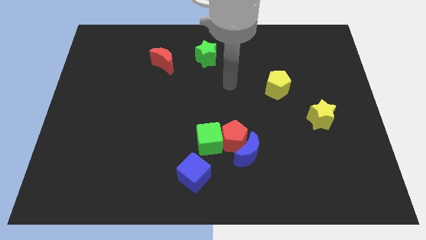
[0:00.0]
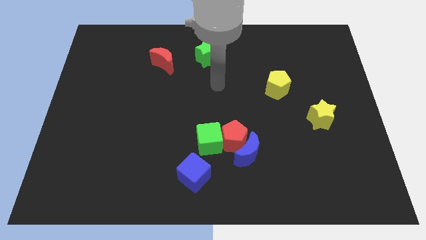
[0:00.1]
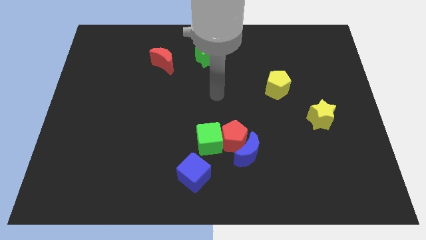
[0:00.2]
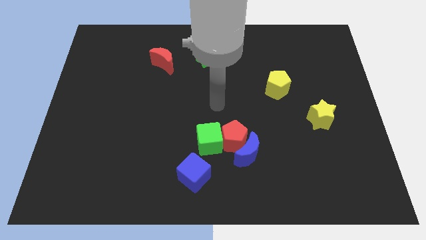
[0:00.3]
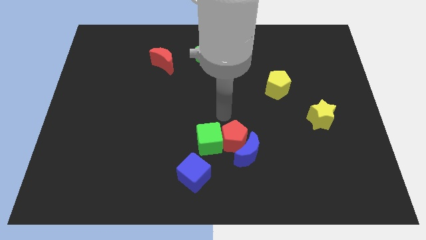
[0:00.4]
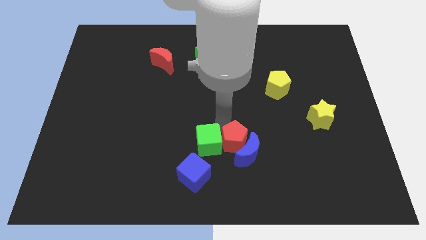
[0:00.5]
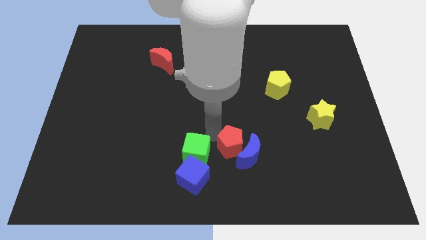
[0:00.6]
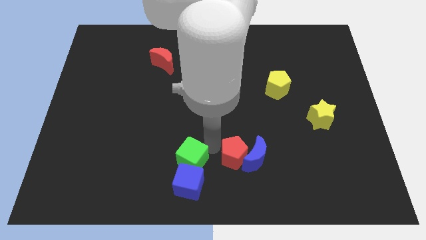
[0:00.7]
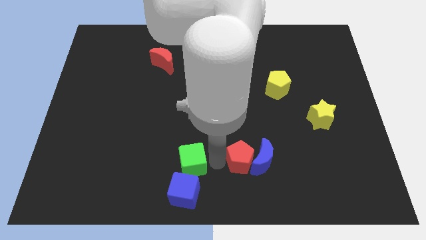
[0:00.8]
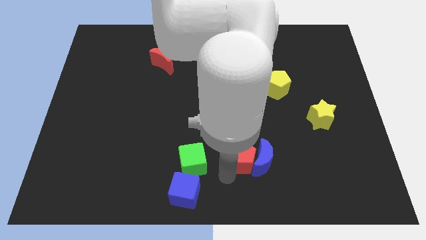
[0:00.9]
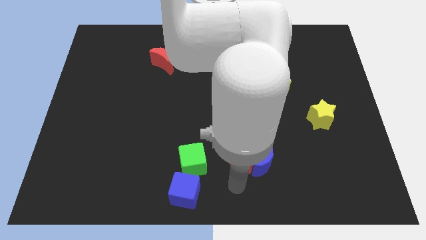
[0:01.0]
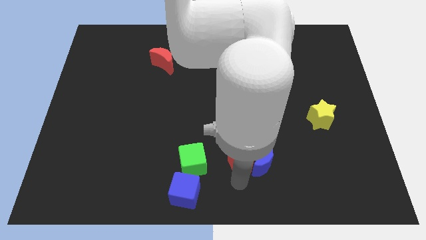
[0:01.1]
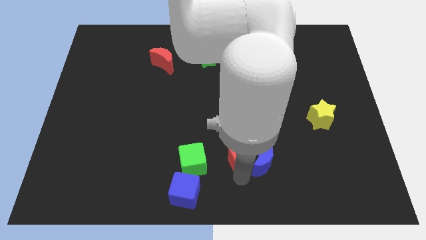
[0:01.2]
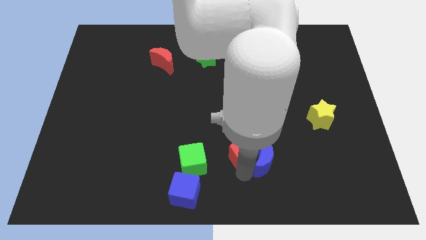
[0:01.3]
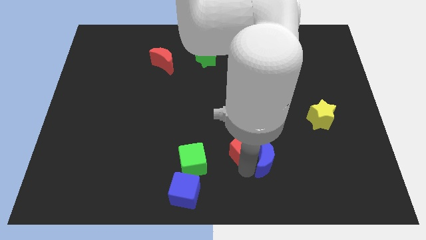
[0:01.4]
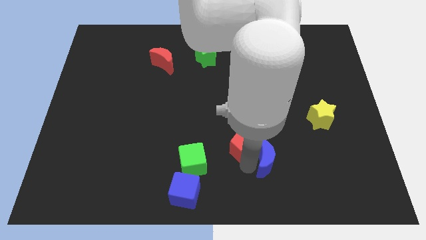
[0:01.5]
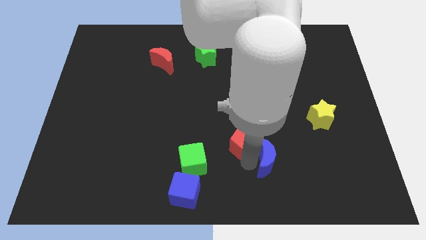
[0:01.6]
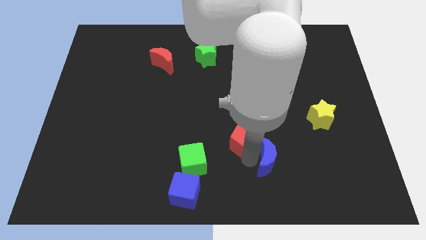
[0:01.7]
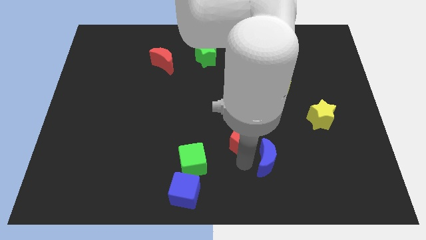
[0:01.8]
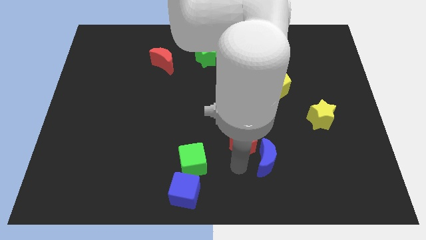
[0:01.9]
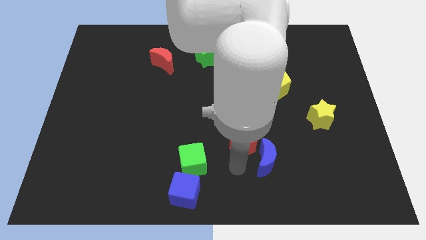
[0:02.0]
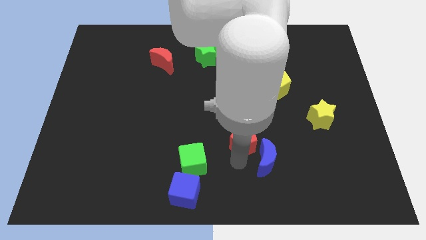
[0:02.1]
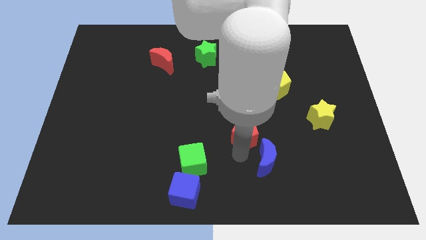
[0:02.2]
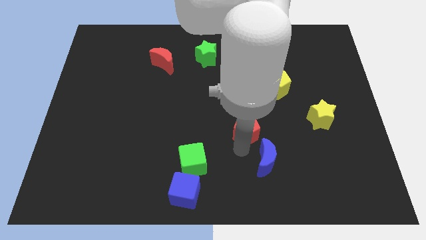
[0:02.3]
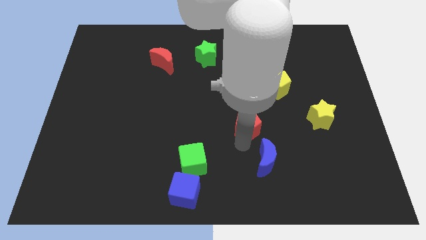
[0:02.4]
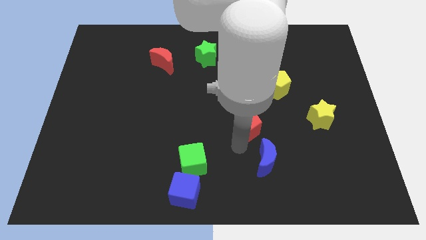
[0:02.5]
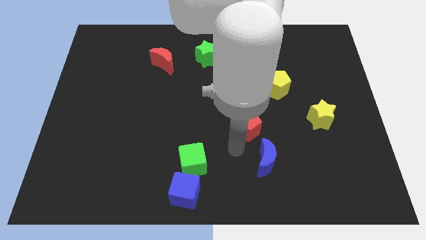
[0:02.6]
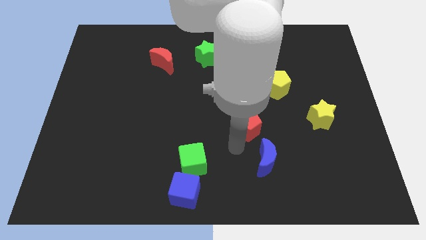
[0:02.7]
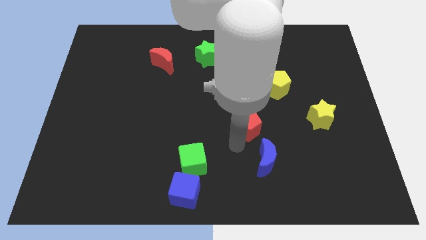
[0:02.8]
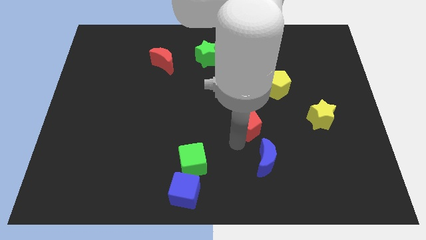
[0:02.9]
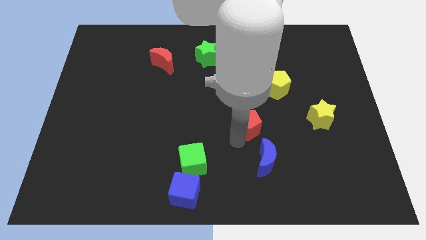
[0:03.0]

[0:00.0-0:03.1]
pull the red pentagon apart from the blue moon and green cube

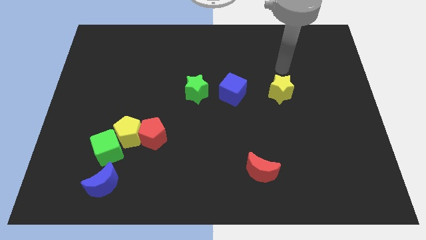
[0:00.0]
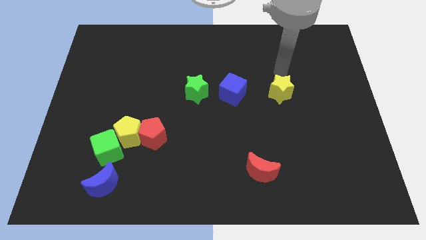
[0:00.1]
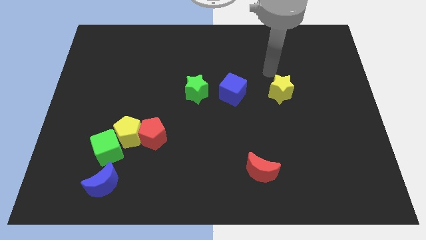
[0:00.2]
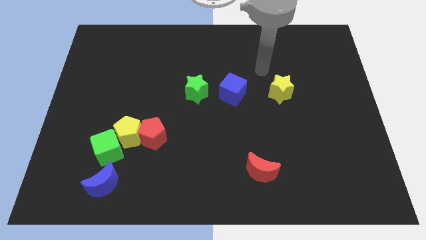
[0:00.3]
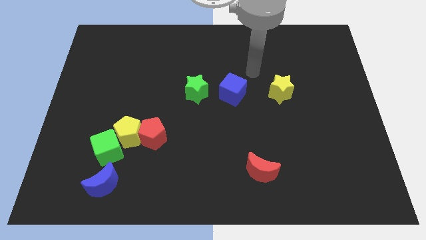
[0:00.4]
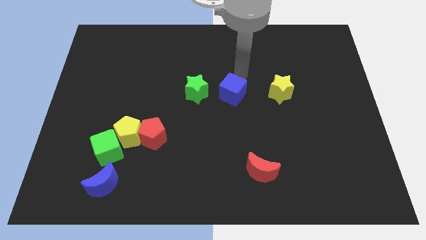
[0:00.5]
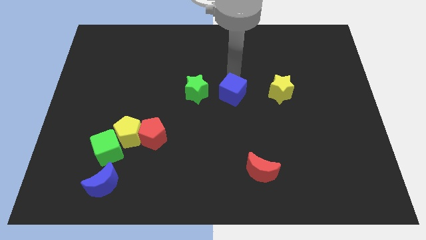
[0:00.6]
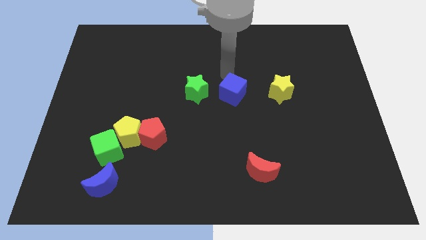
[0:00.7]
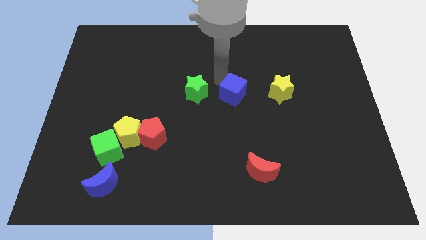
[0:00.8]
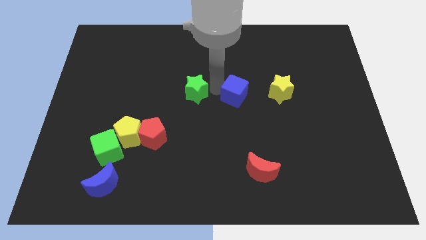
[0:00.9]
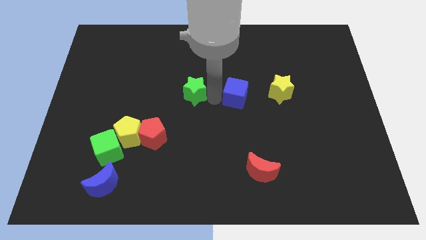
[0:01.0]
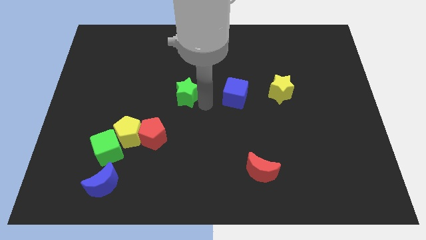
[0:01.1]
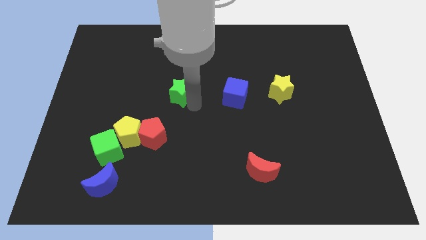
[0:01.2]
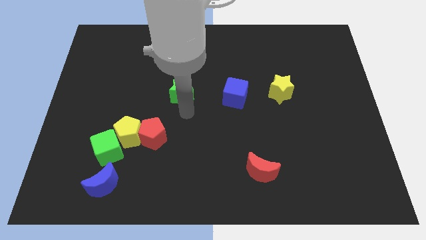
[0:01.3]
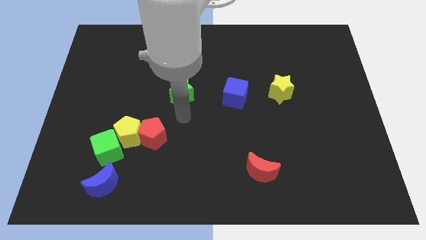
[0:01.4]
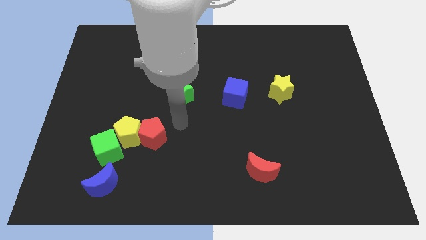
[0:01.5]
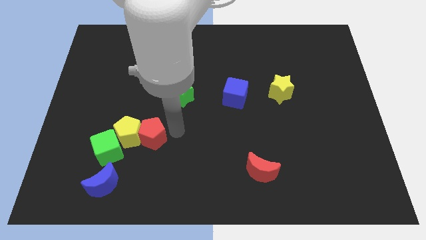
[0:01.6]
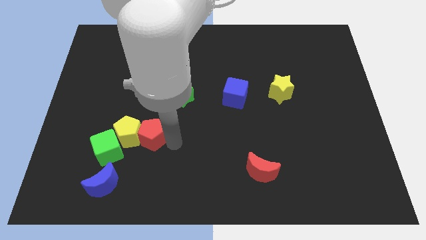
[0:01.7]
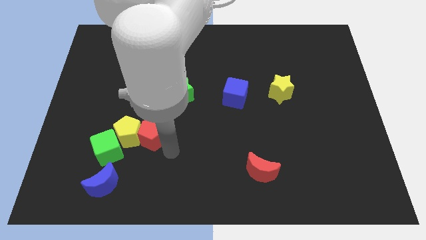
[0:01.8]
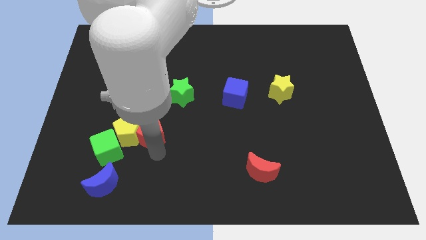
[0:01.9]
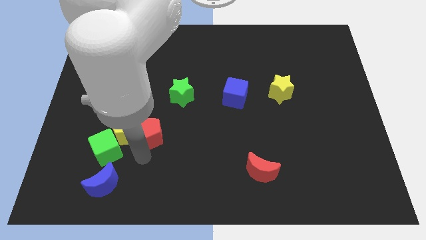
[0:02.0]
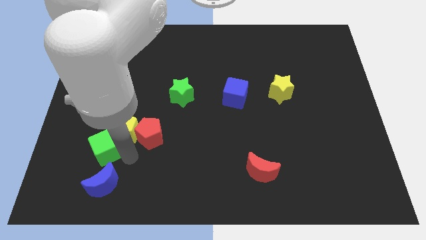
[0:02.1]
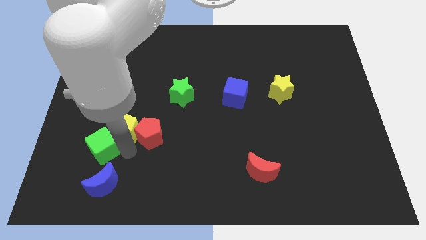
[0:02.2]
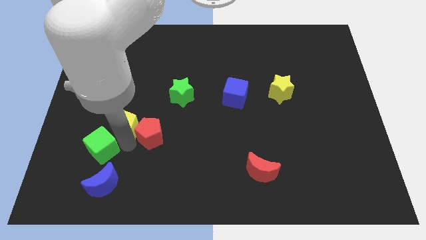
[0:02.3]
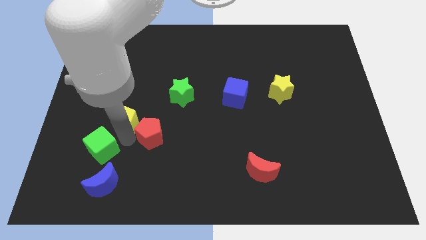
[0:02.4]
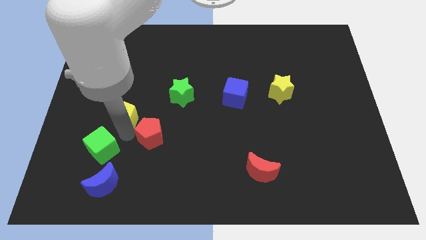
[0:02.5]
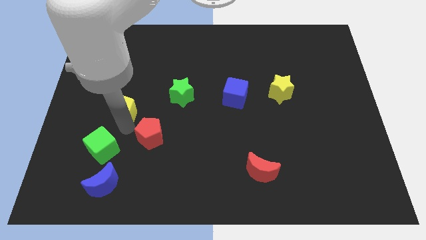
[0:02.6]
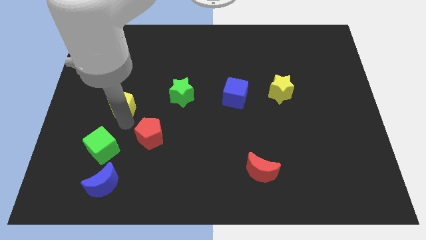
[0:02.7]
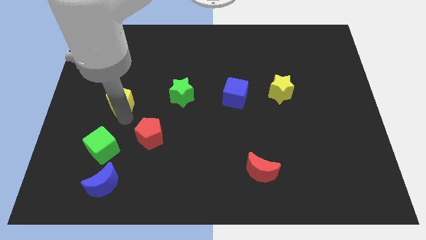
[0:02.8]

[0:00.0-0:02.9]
separate the yellow pentagon from the red pentagon and green cube

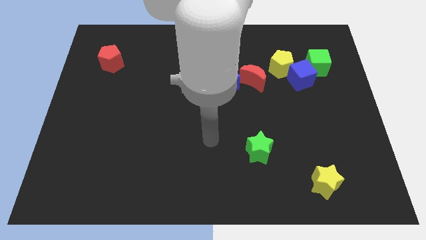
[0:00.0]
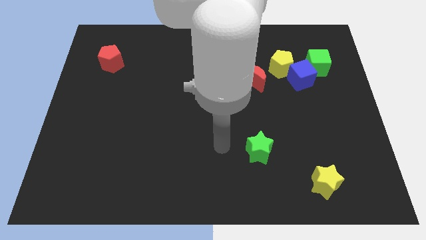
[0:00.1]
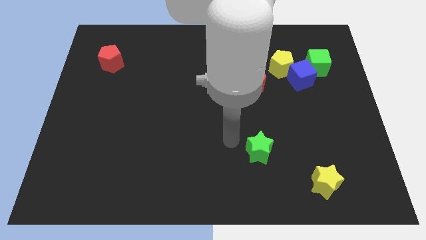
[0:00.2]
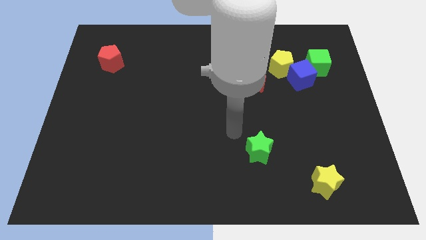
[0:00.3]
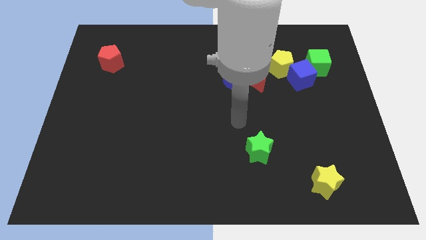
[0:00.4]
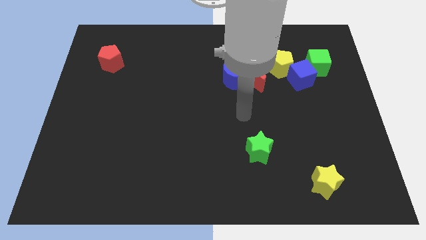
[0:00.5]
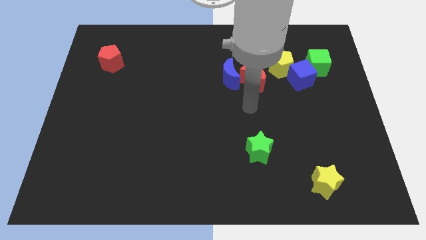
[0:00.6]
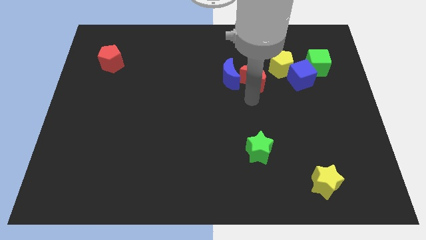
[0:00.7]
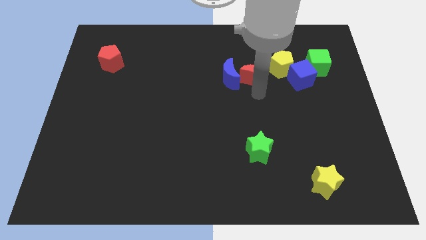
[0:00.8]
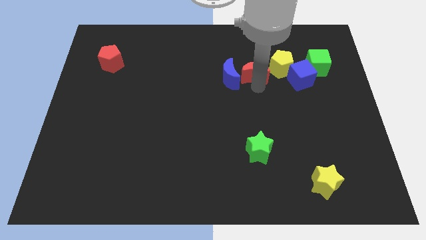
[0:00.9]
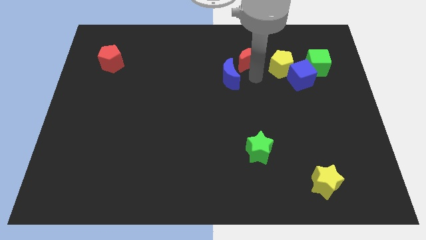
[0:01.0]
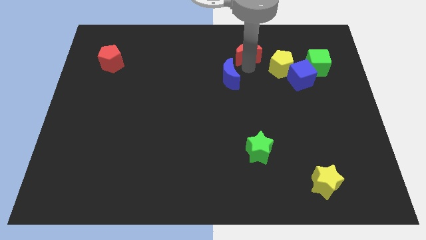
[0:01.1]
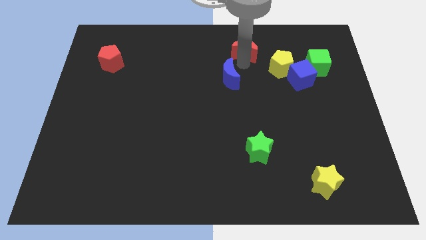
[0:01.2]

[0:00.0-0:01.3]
separate the blue moon from the red moon

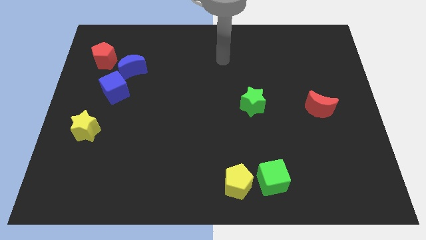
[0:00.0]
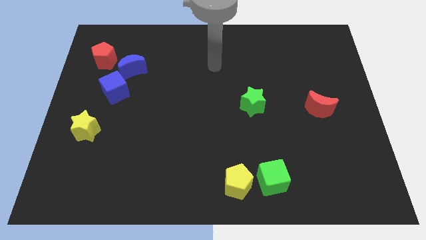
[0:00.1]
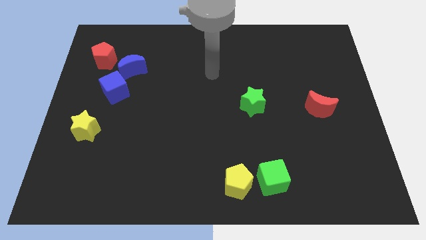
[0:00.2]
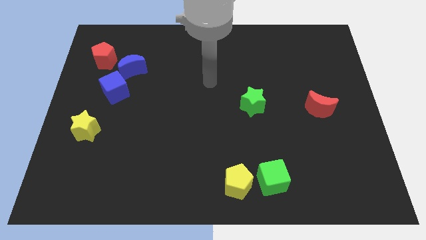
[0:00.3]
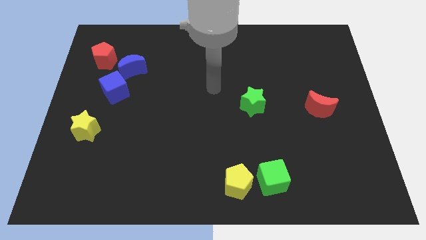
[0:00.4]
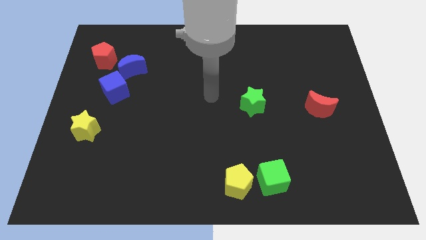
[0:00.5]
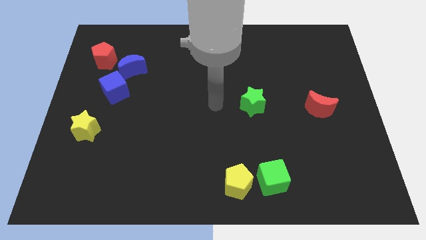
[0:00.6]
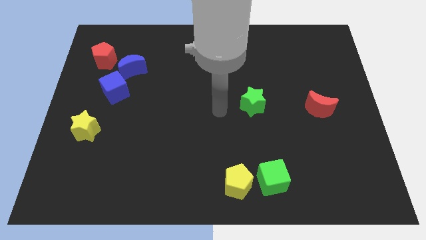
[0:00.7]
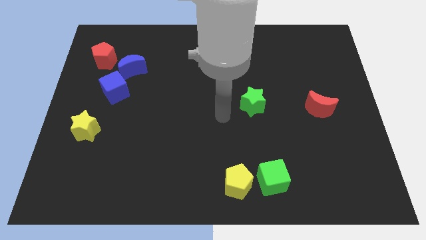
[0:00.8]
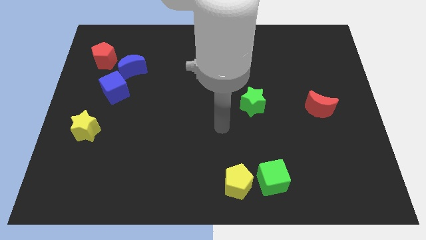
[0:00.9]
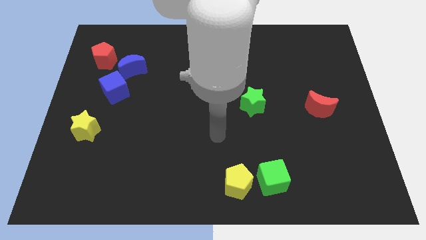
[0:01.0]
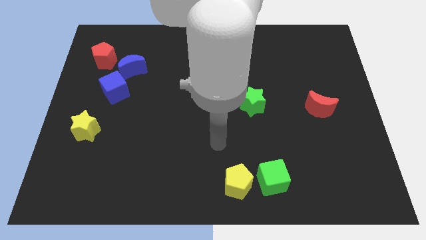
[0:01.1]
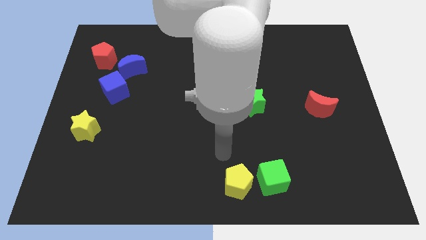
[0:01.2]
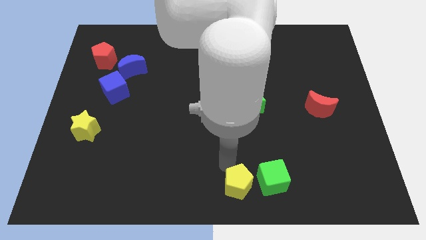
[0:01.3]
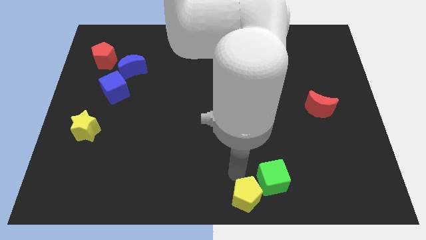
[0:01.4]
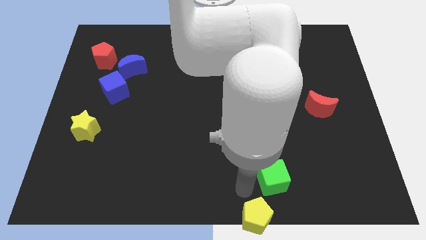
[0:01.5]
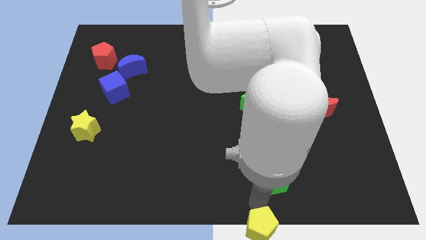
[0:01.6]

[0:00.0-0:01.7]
move the green cube away from the yellow pentagon

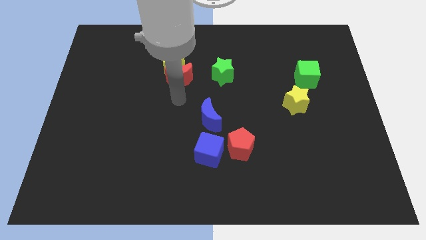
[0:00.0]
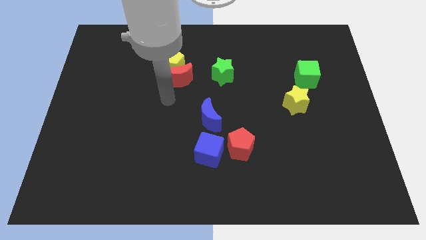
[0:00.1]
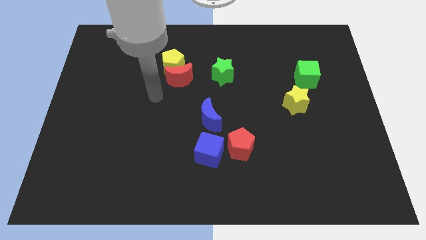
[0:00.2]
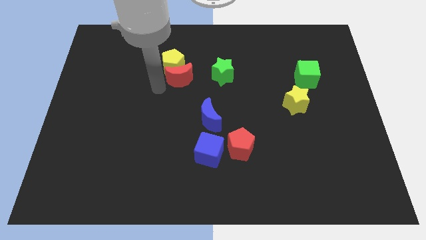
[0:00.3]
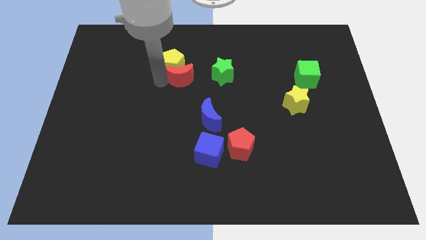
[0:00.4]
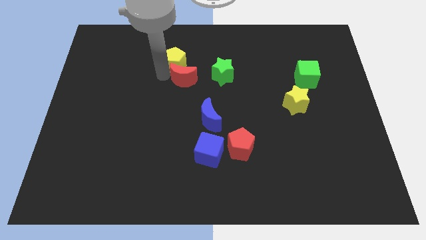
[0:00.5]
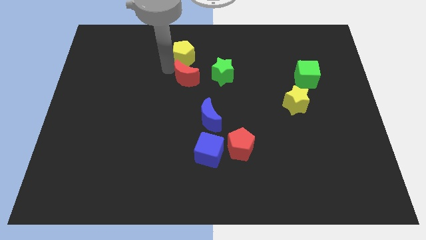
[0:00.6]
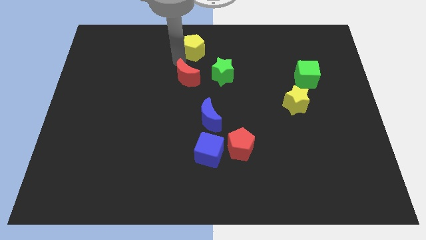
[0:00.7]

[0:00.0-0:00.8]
separate the red moon from the yellow pentagon
